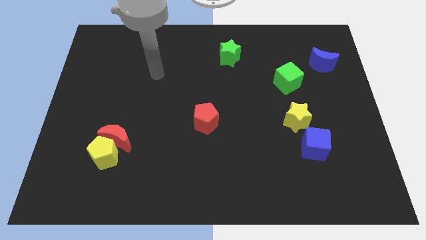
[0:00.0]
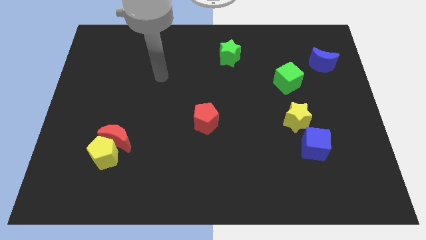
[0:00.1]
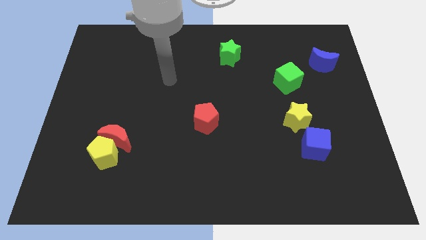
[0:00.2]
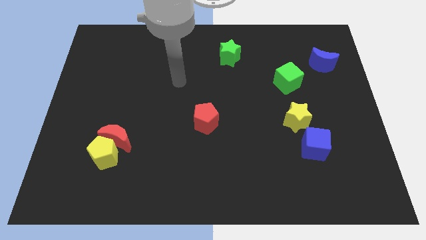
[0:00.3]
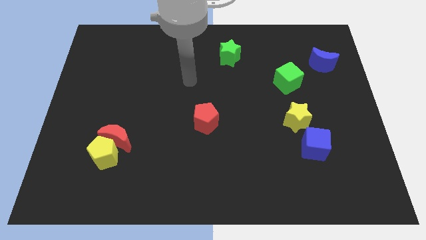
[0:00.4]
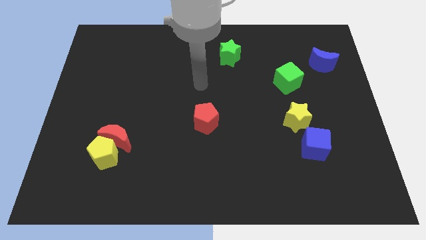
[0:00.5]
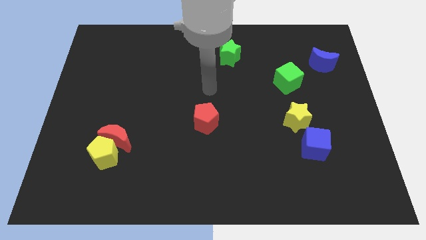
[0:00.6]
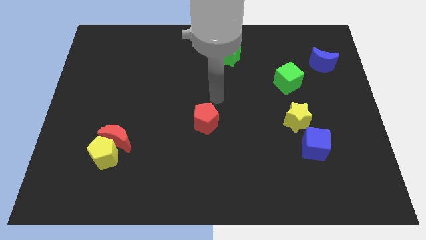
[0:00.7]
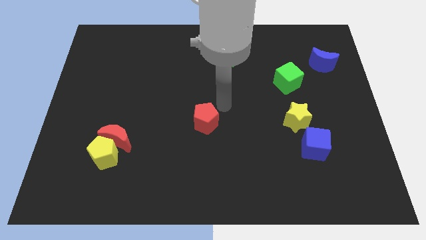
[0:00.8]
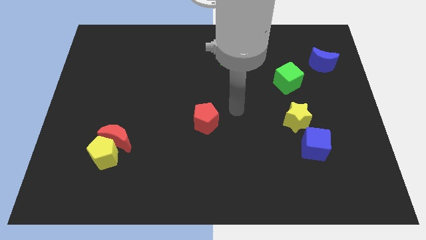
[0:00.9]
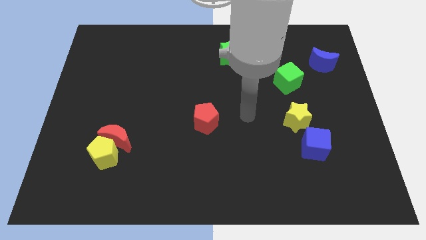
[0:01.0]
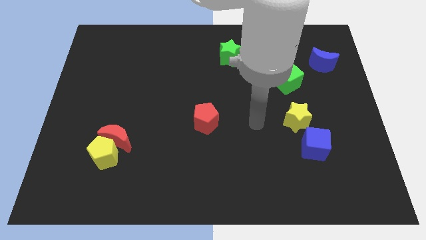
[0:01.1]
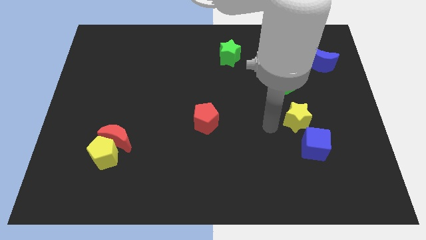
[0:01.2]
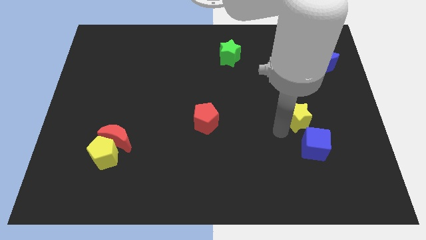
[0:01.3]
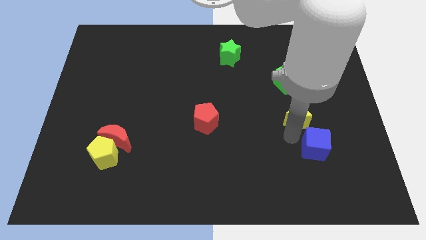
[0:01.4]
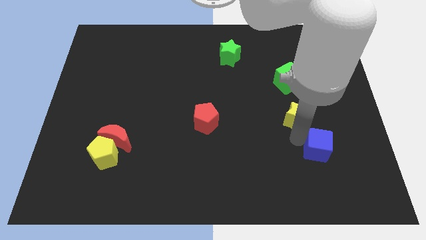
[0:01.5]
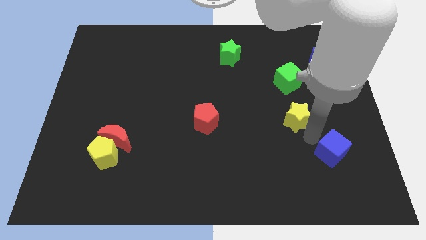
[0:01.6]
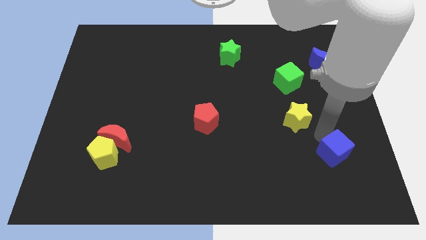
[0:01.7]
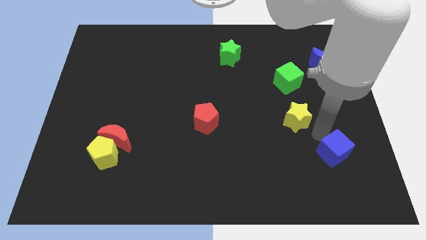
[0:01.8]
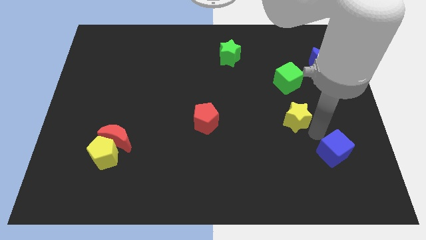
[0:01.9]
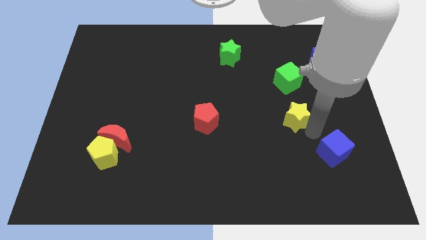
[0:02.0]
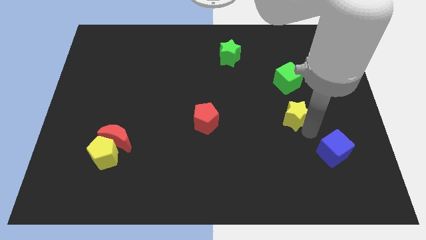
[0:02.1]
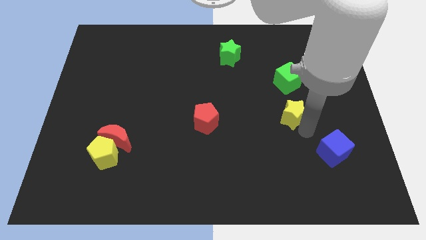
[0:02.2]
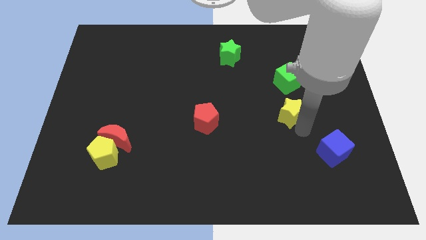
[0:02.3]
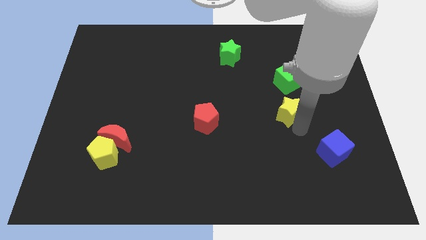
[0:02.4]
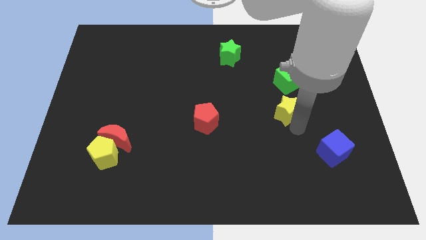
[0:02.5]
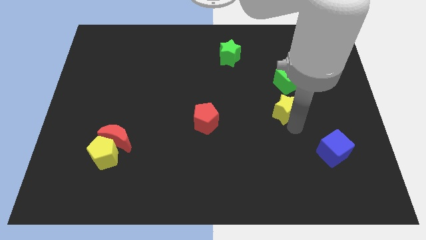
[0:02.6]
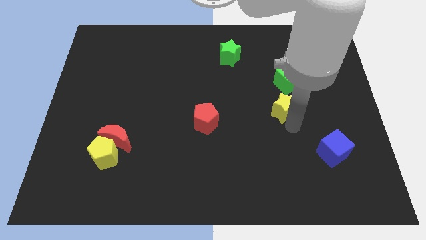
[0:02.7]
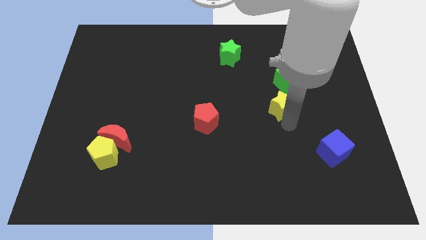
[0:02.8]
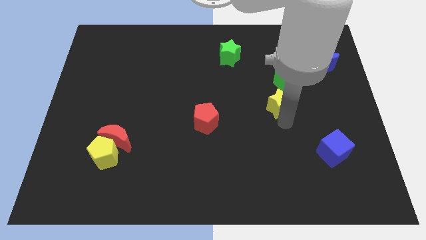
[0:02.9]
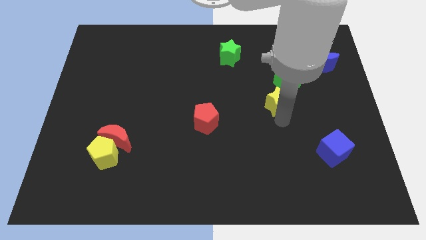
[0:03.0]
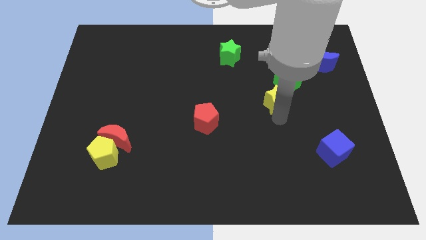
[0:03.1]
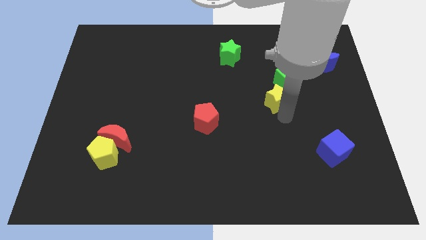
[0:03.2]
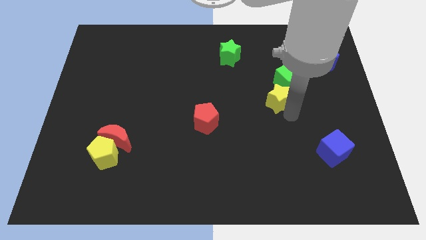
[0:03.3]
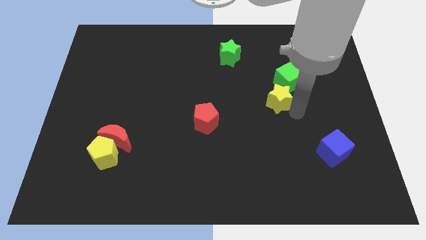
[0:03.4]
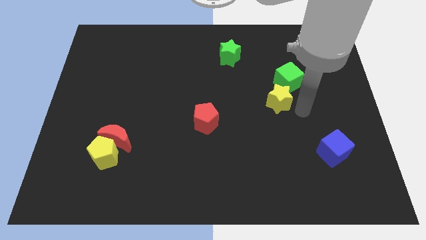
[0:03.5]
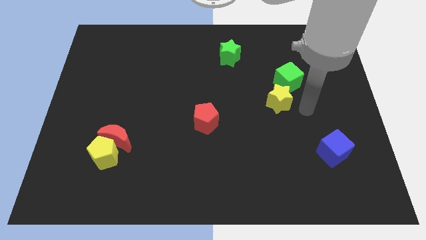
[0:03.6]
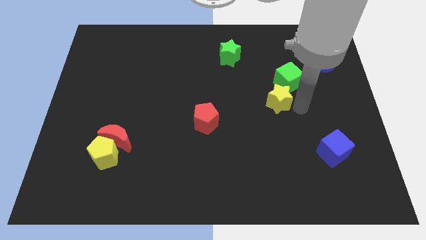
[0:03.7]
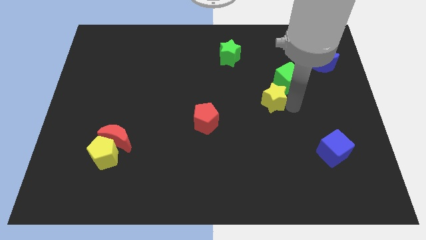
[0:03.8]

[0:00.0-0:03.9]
move the yellow star slightly up and then to the left

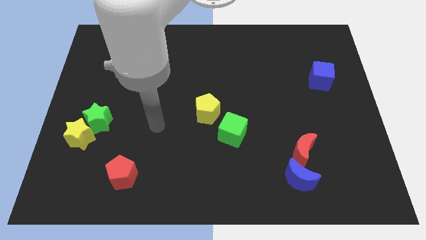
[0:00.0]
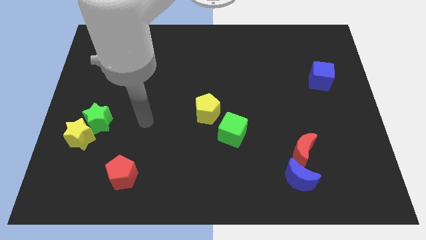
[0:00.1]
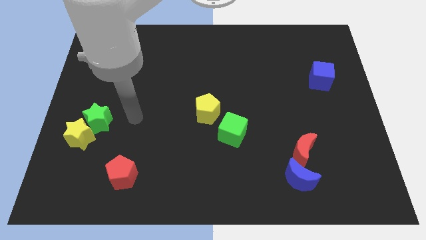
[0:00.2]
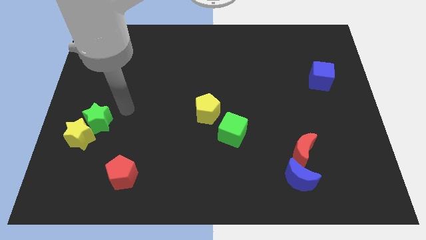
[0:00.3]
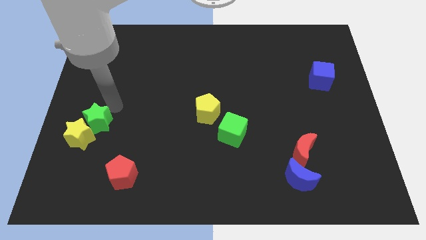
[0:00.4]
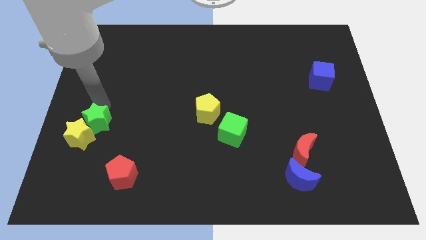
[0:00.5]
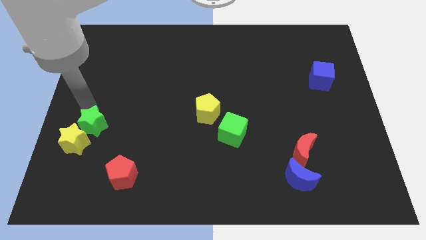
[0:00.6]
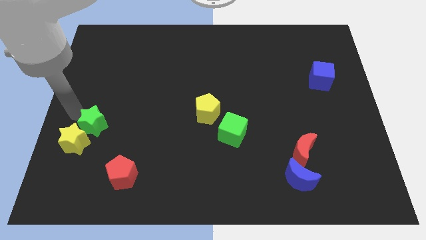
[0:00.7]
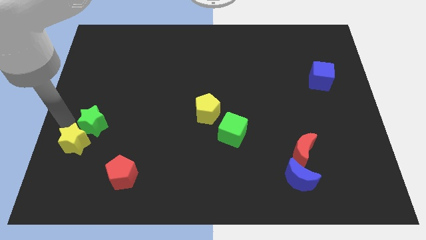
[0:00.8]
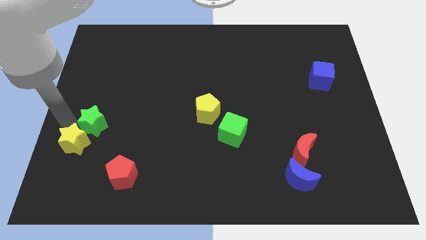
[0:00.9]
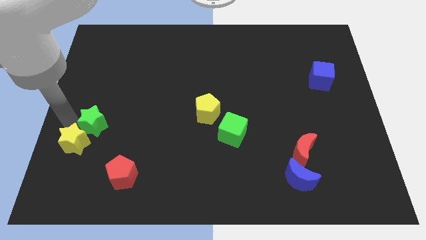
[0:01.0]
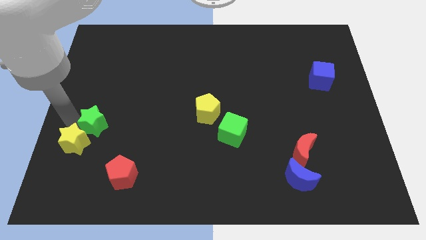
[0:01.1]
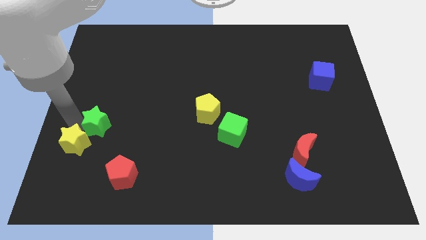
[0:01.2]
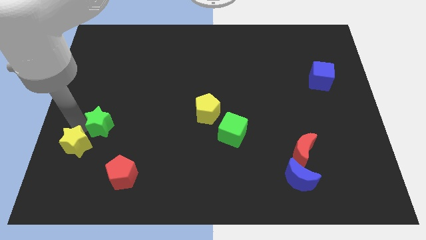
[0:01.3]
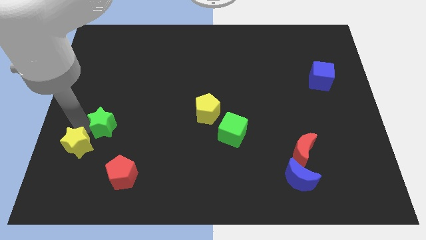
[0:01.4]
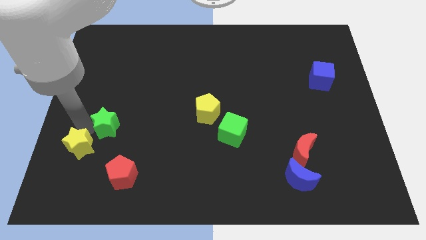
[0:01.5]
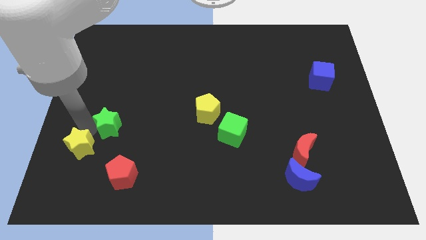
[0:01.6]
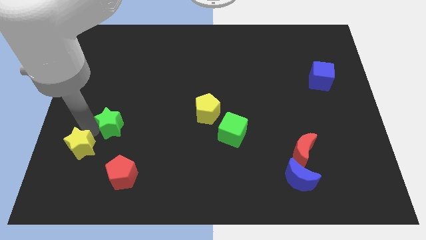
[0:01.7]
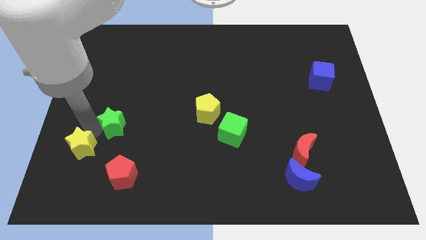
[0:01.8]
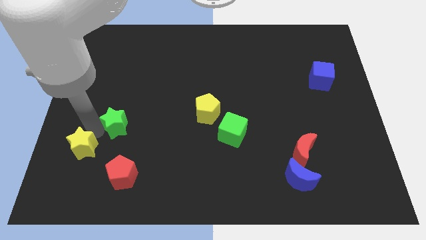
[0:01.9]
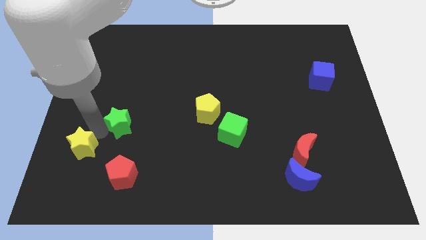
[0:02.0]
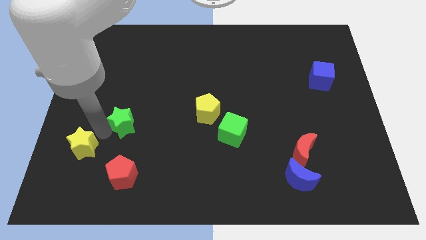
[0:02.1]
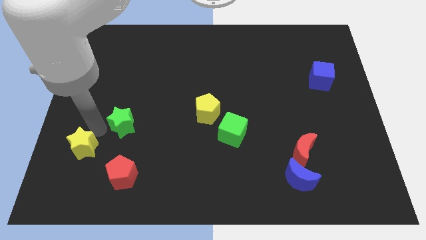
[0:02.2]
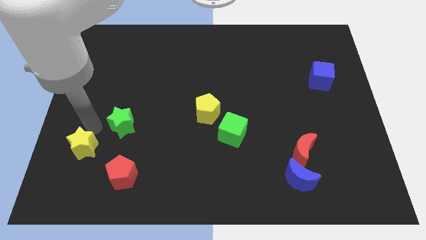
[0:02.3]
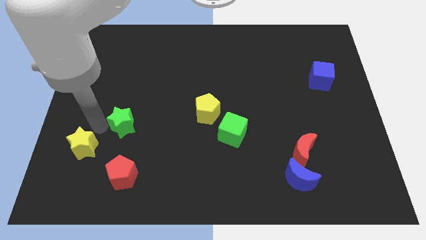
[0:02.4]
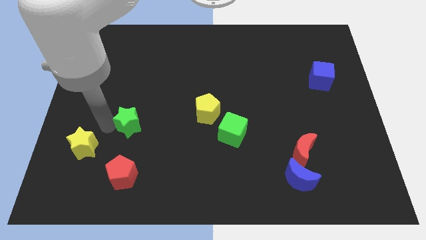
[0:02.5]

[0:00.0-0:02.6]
move the green star somewhat right

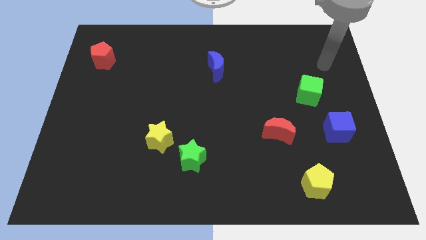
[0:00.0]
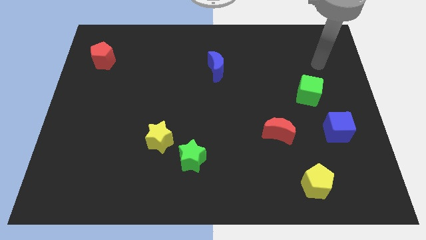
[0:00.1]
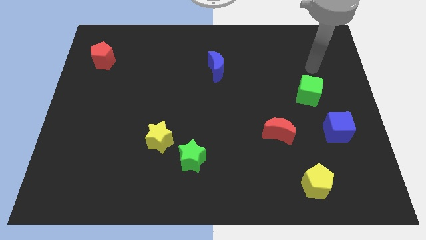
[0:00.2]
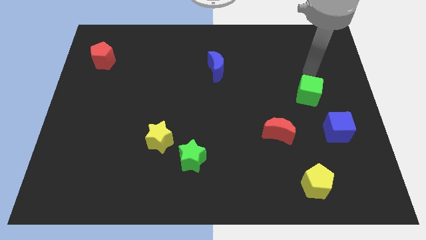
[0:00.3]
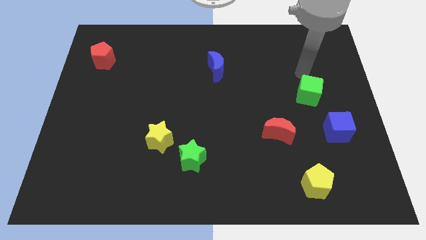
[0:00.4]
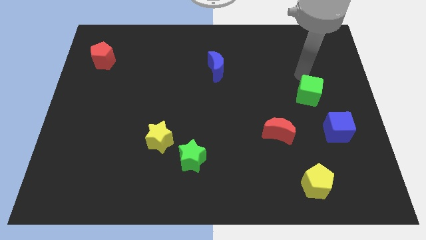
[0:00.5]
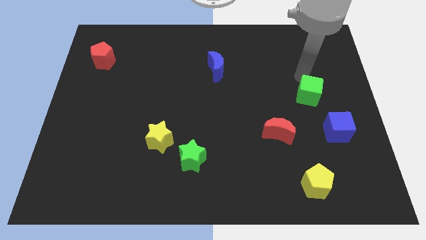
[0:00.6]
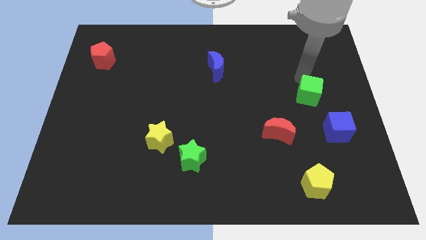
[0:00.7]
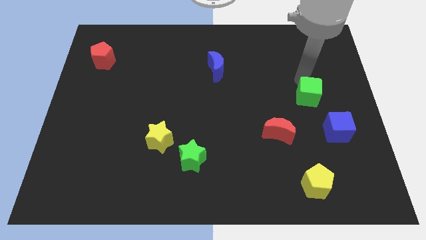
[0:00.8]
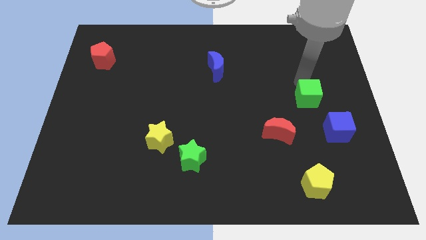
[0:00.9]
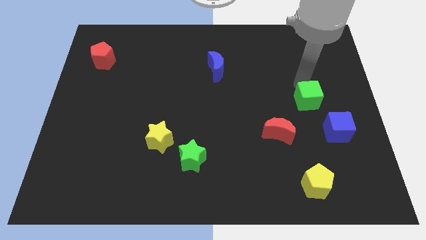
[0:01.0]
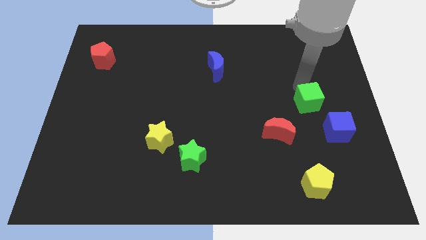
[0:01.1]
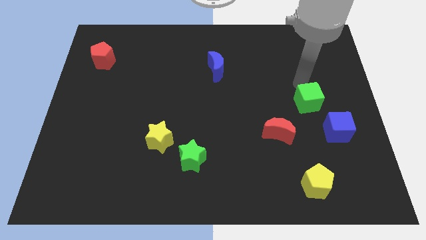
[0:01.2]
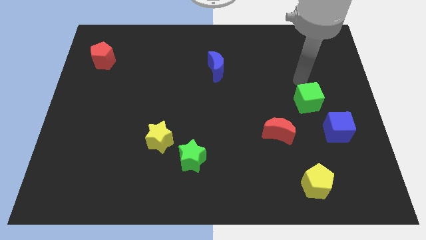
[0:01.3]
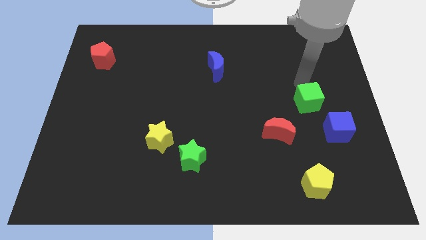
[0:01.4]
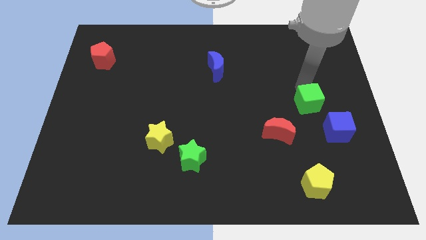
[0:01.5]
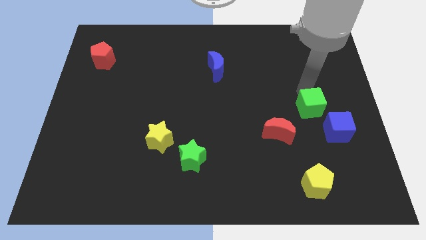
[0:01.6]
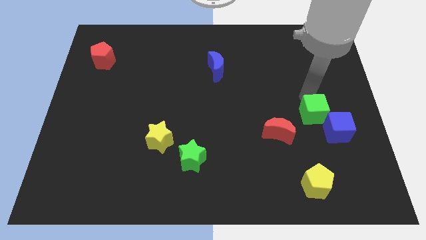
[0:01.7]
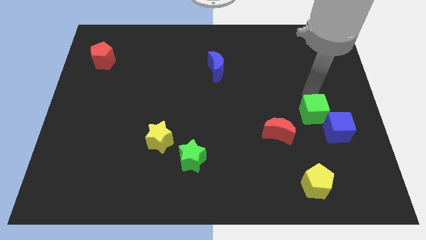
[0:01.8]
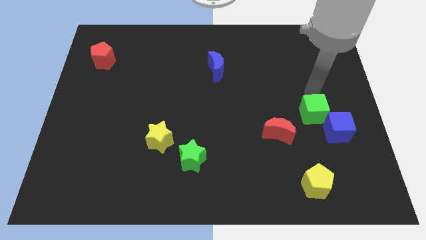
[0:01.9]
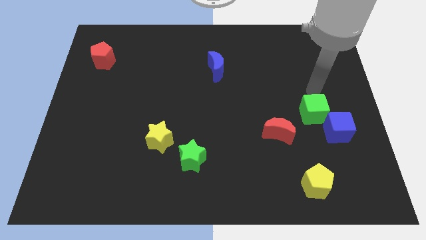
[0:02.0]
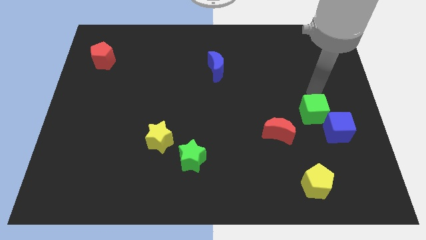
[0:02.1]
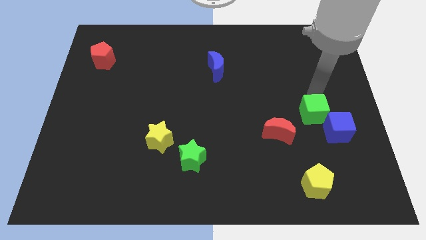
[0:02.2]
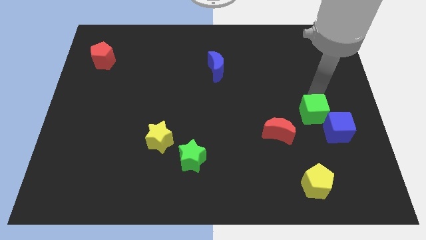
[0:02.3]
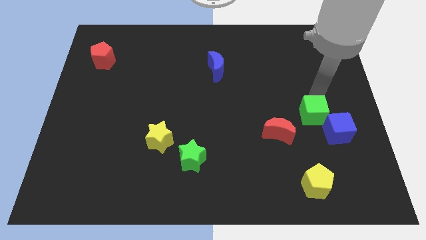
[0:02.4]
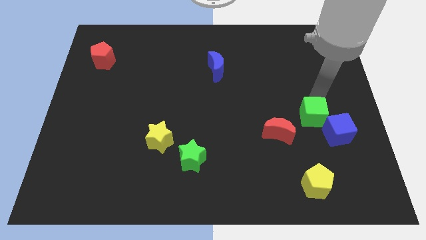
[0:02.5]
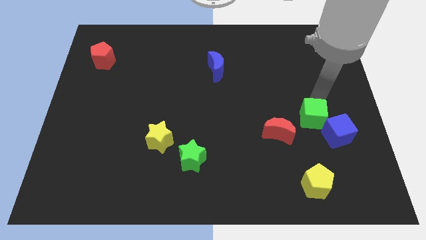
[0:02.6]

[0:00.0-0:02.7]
slightly move the green cube downwards
